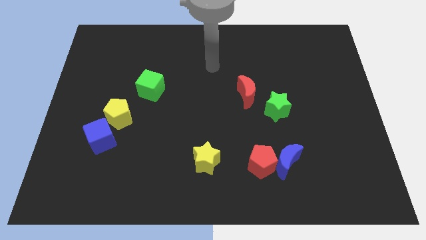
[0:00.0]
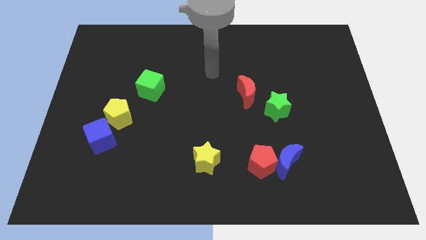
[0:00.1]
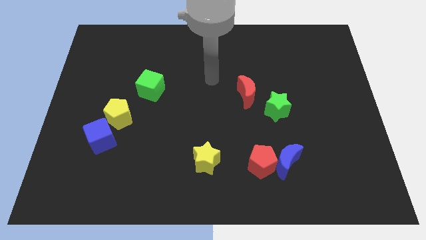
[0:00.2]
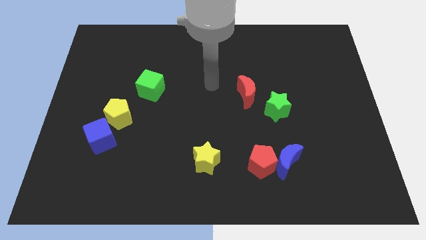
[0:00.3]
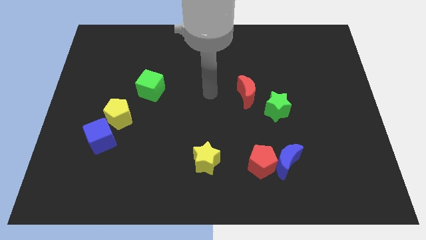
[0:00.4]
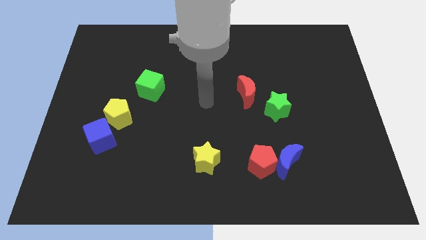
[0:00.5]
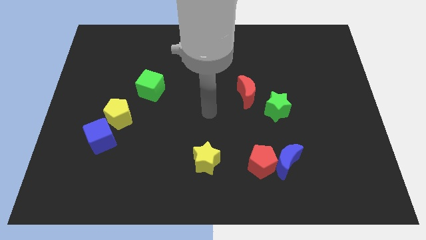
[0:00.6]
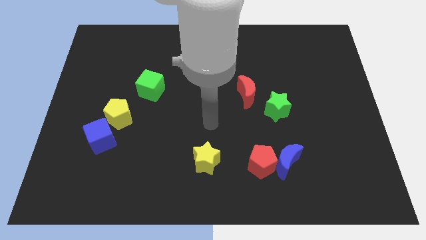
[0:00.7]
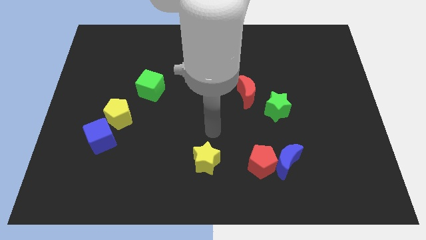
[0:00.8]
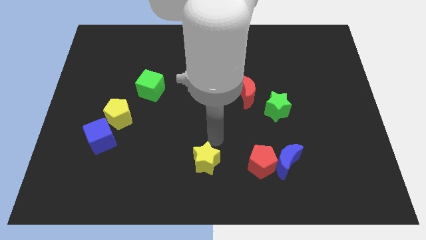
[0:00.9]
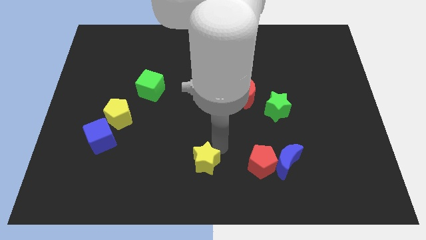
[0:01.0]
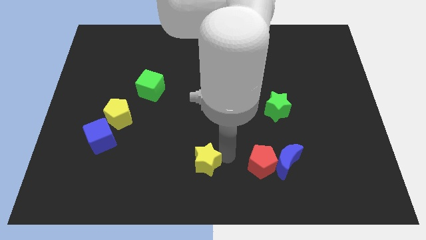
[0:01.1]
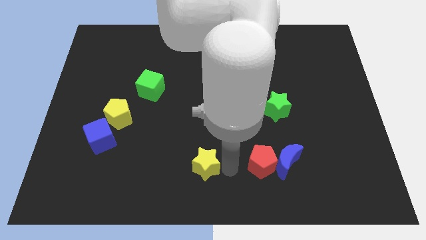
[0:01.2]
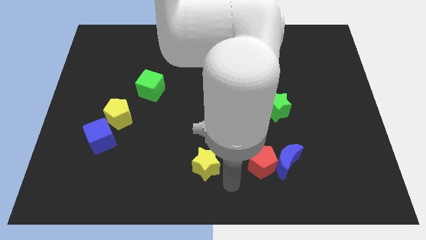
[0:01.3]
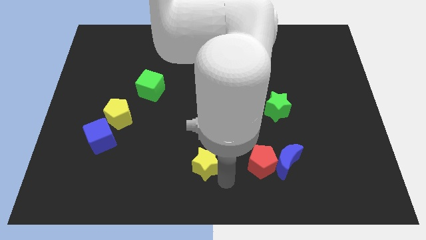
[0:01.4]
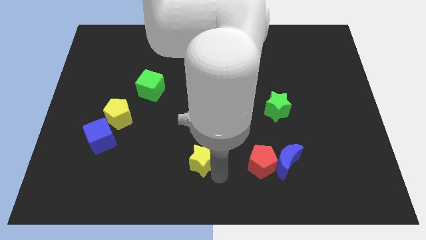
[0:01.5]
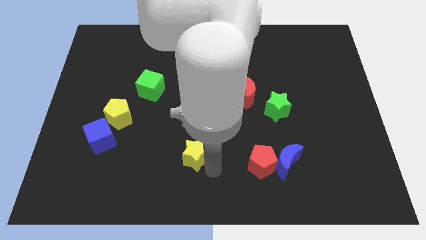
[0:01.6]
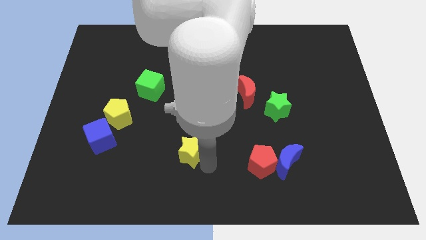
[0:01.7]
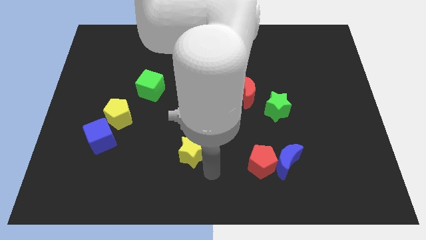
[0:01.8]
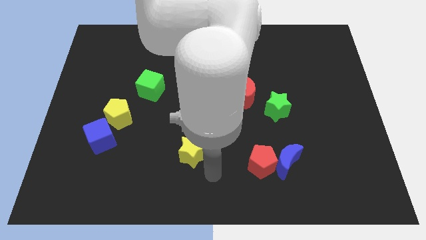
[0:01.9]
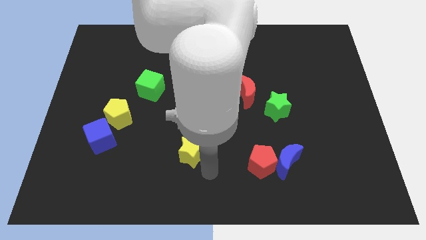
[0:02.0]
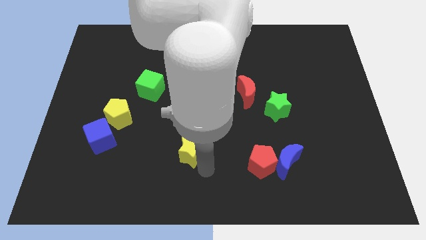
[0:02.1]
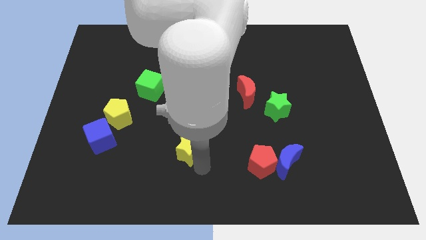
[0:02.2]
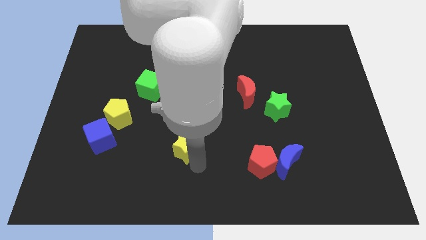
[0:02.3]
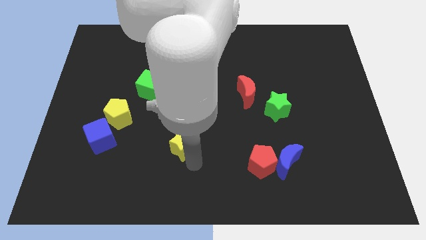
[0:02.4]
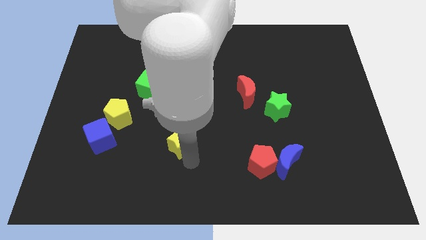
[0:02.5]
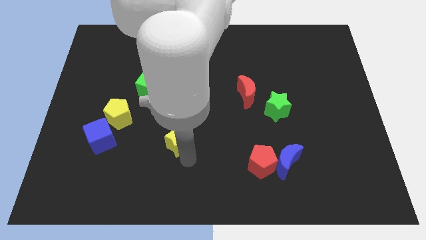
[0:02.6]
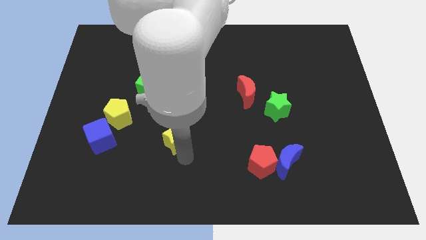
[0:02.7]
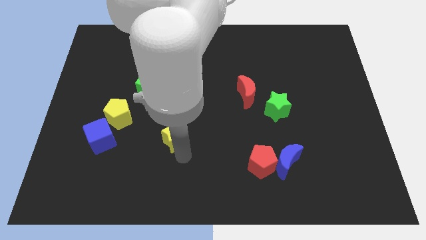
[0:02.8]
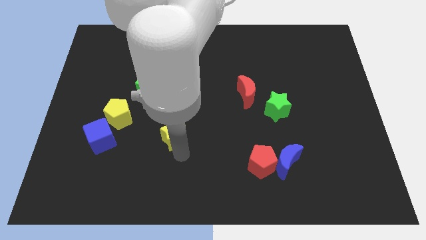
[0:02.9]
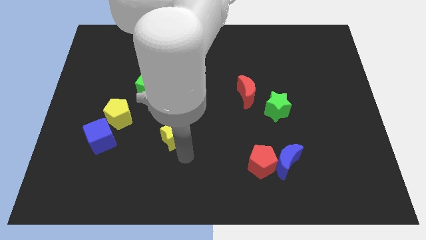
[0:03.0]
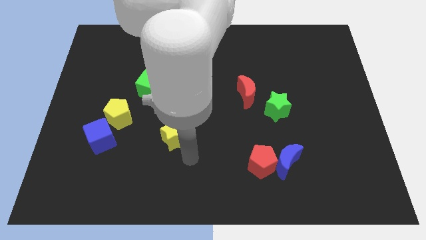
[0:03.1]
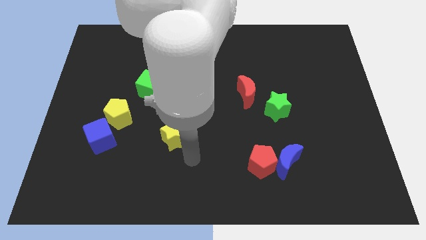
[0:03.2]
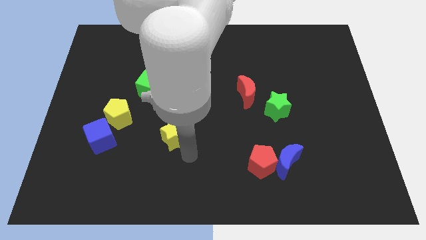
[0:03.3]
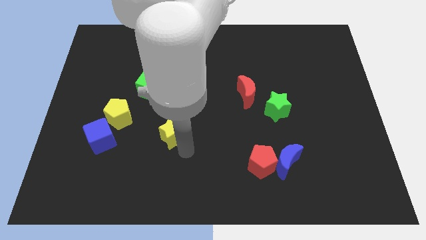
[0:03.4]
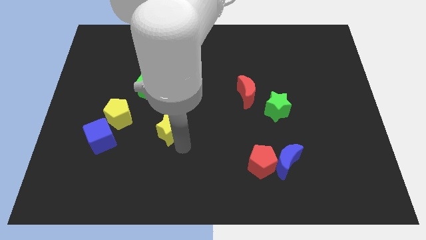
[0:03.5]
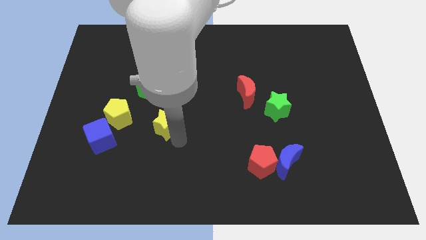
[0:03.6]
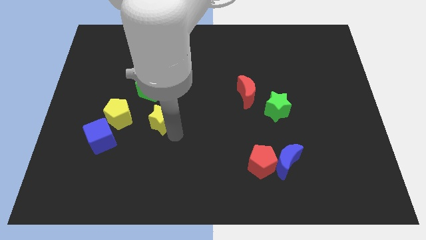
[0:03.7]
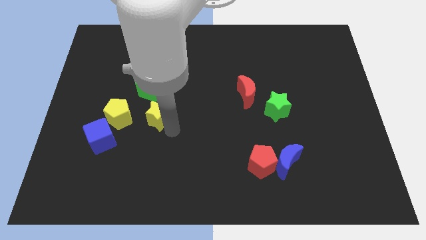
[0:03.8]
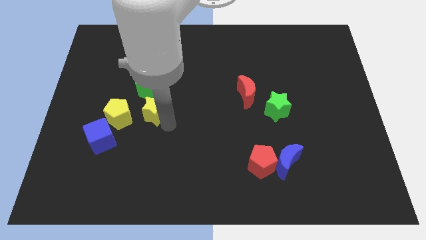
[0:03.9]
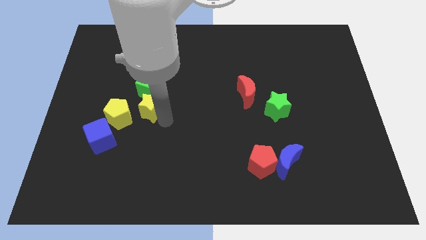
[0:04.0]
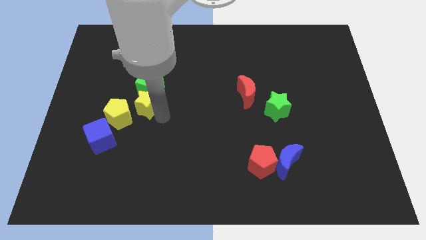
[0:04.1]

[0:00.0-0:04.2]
push the yellow star upwards and to the left

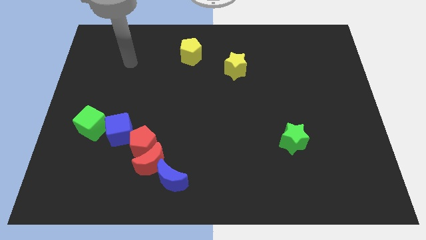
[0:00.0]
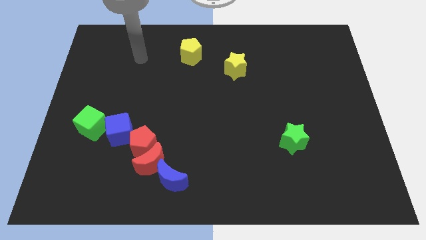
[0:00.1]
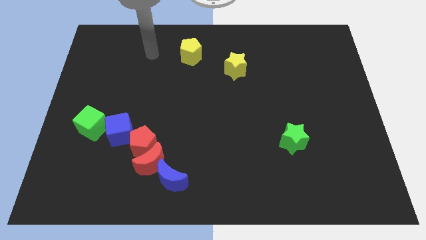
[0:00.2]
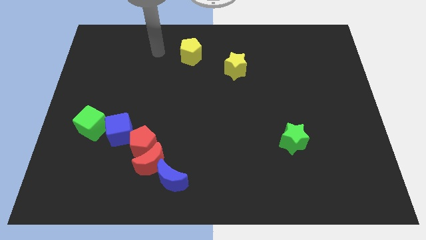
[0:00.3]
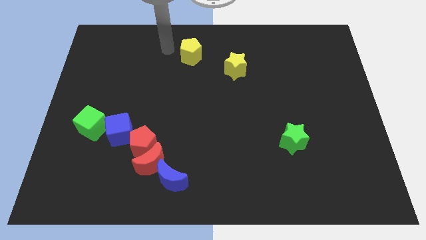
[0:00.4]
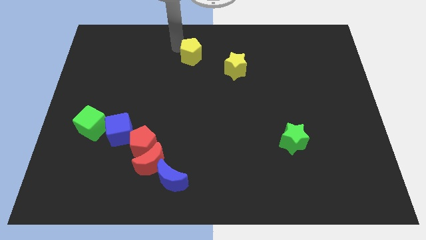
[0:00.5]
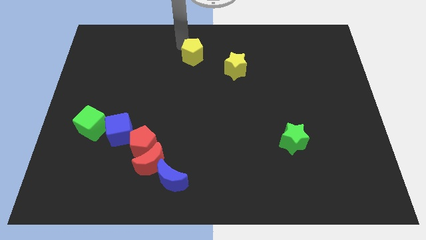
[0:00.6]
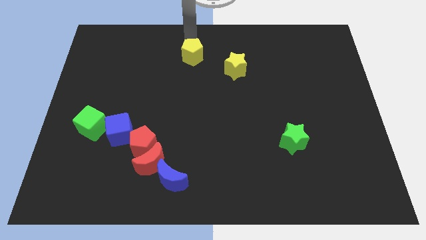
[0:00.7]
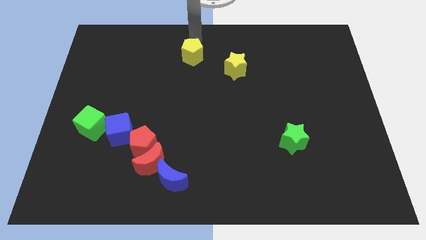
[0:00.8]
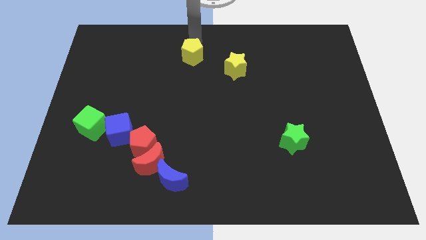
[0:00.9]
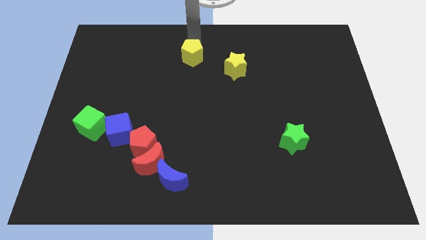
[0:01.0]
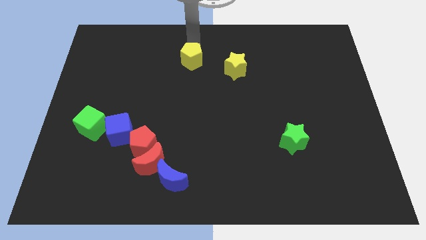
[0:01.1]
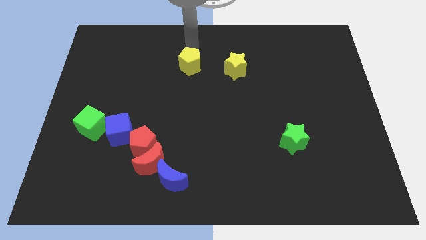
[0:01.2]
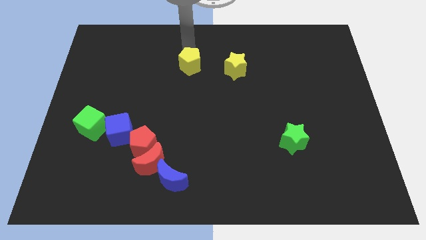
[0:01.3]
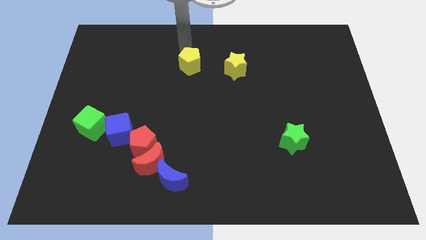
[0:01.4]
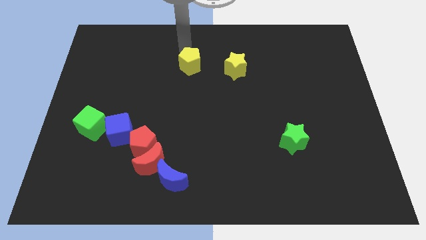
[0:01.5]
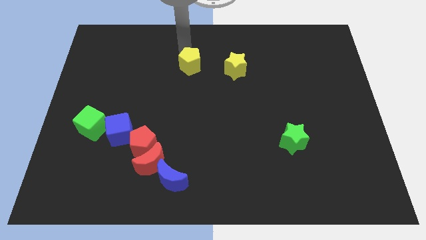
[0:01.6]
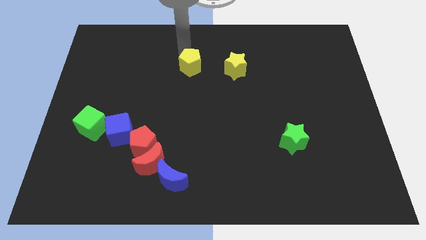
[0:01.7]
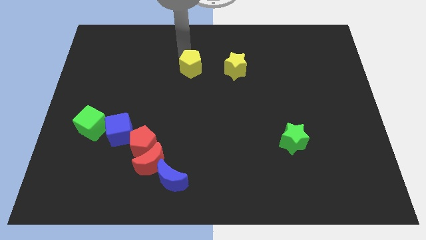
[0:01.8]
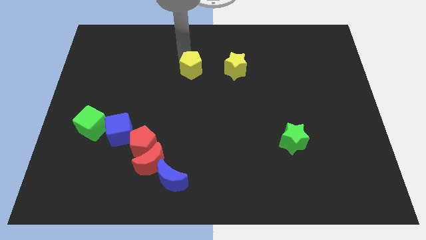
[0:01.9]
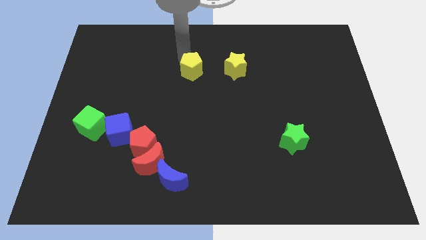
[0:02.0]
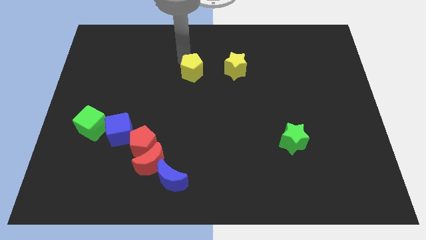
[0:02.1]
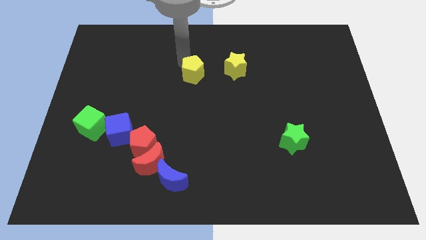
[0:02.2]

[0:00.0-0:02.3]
push the yellow pentagon down a bit

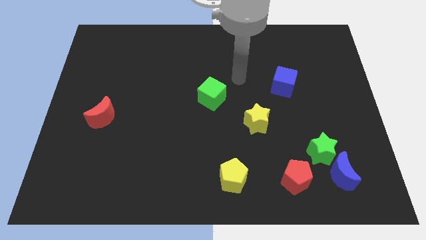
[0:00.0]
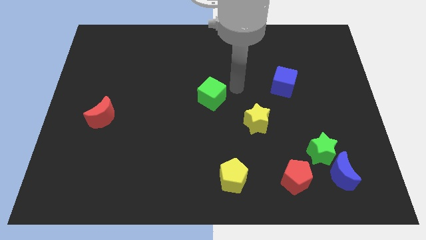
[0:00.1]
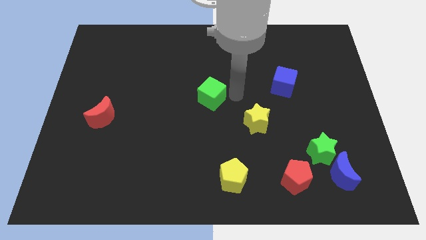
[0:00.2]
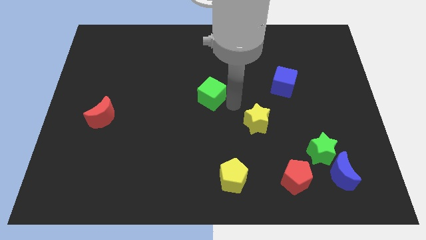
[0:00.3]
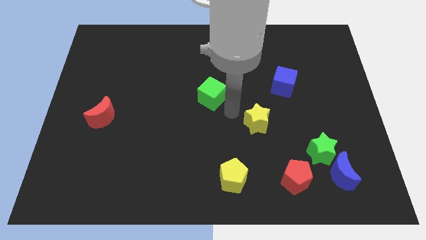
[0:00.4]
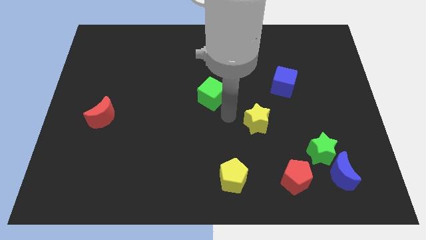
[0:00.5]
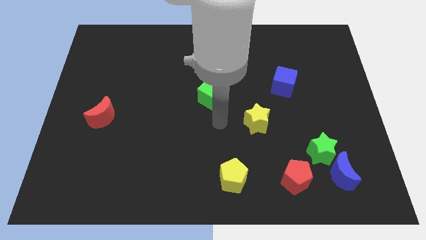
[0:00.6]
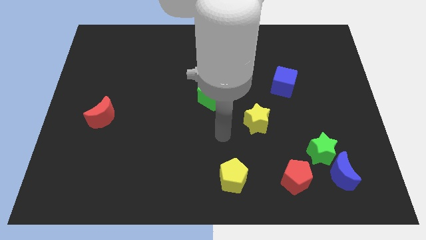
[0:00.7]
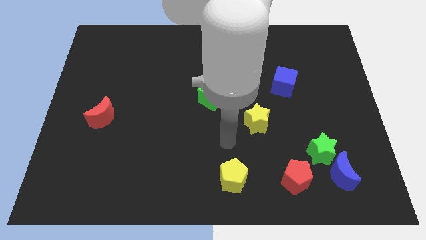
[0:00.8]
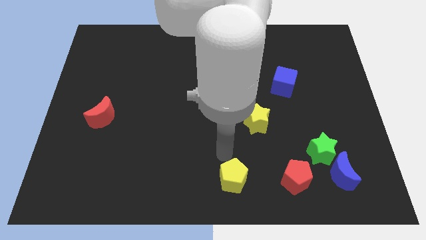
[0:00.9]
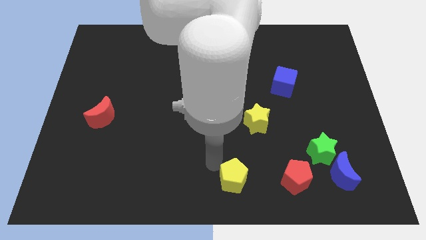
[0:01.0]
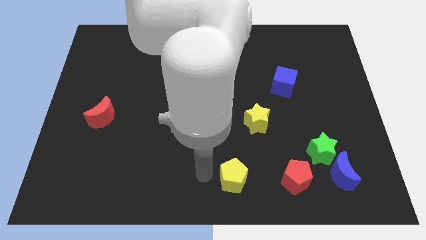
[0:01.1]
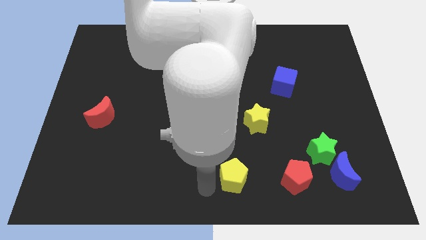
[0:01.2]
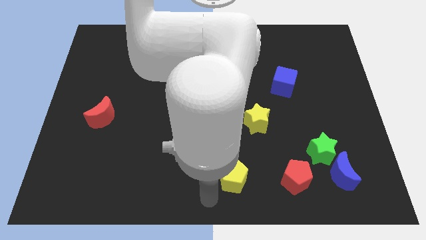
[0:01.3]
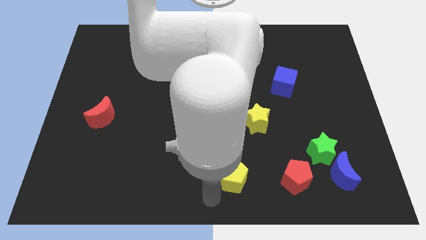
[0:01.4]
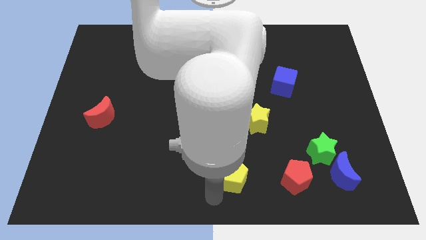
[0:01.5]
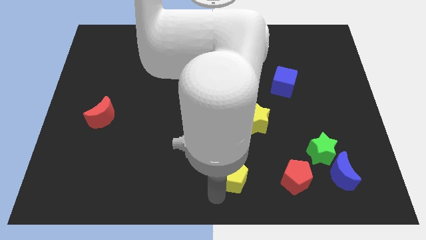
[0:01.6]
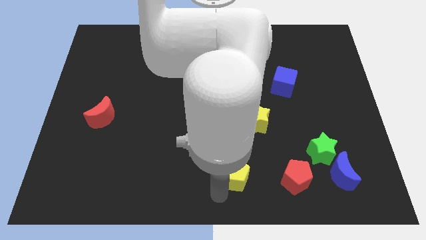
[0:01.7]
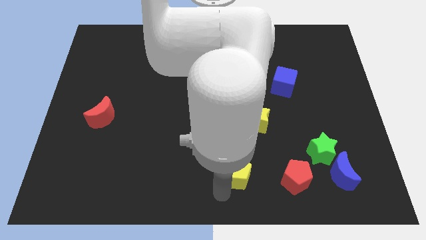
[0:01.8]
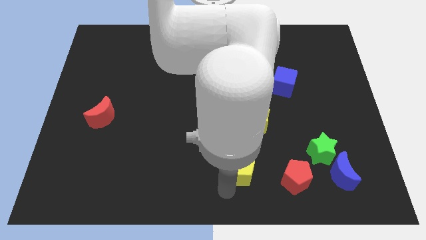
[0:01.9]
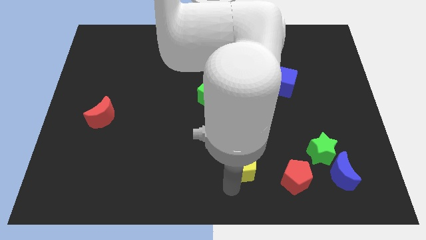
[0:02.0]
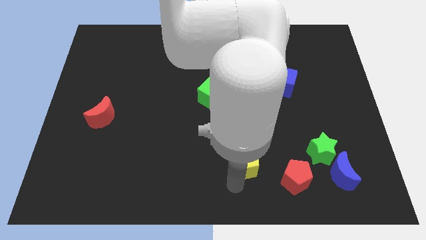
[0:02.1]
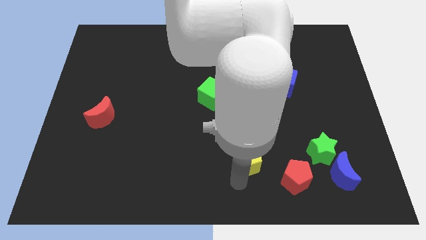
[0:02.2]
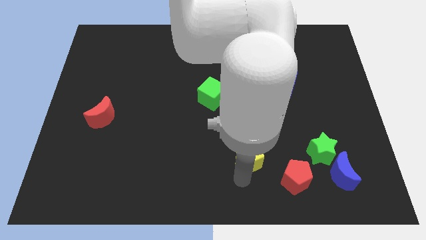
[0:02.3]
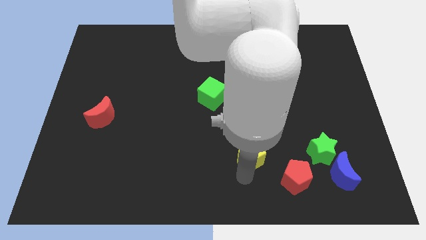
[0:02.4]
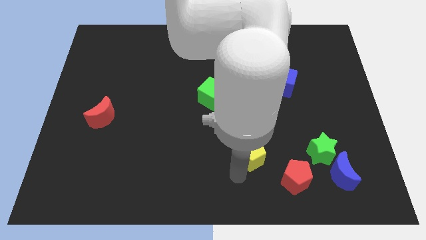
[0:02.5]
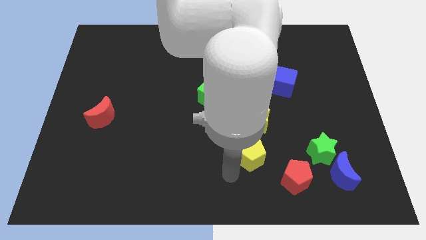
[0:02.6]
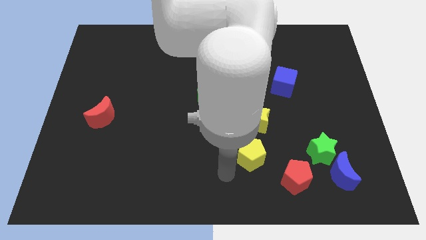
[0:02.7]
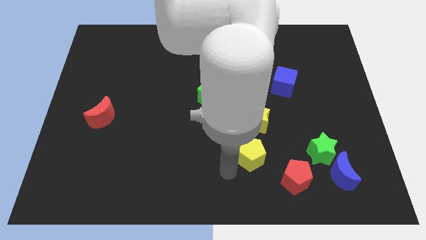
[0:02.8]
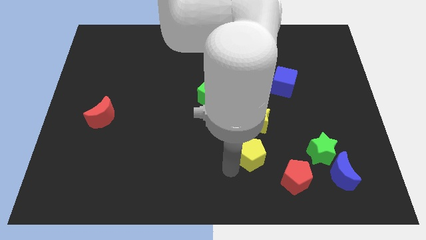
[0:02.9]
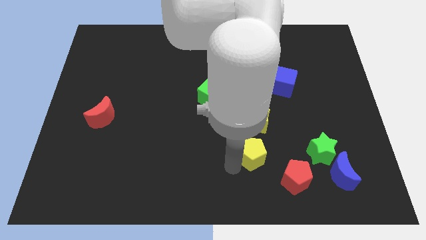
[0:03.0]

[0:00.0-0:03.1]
slide the yellow pentagon up and right slightly
